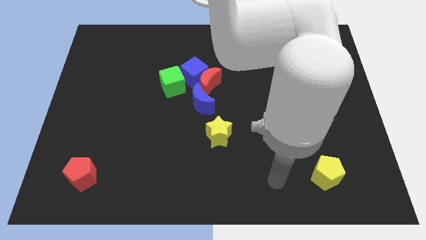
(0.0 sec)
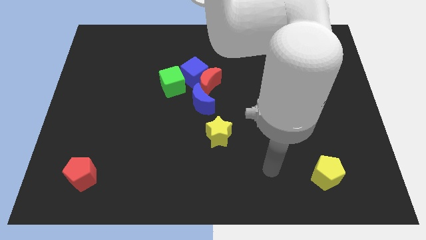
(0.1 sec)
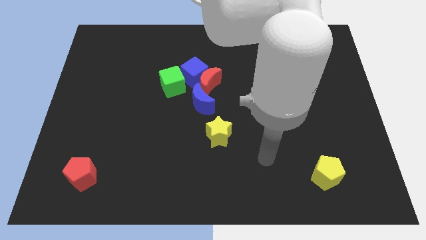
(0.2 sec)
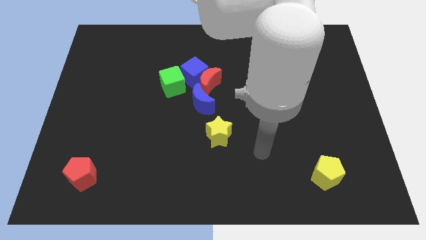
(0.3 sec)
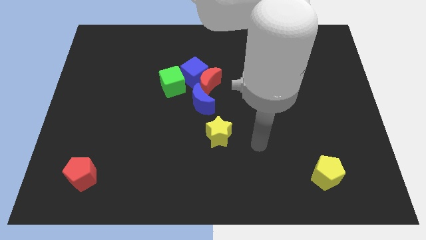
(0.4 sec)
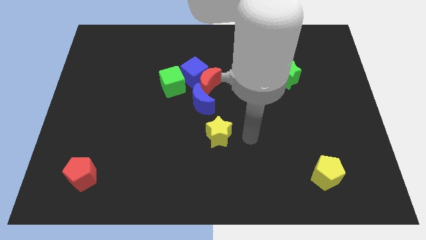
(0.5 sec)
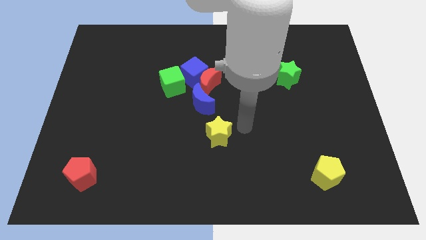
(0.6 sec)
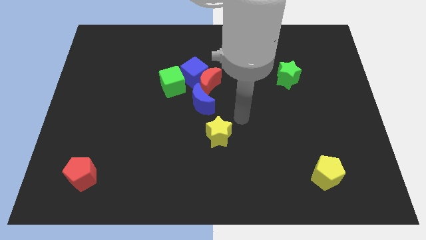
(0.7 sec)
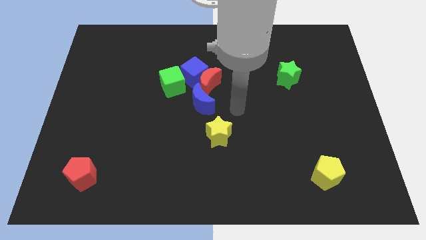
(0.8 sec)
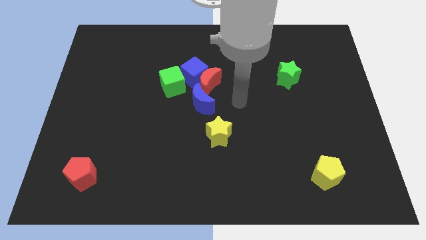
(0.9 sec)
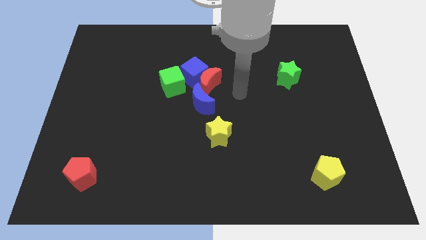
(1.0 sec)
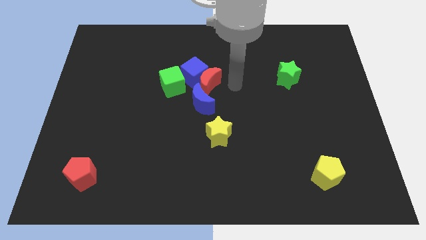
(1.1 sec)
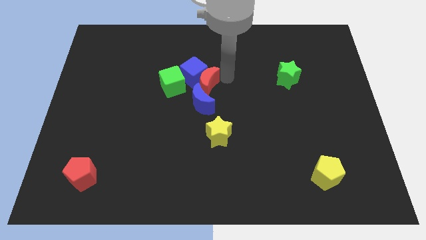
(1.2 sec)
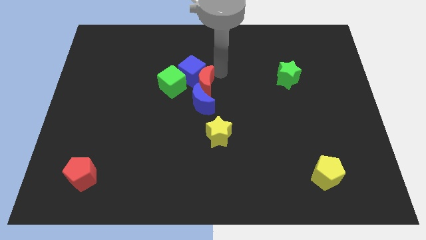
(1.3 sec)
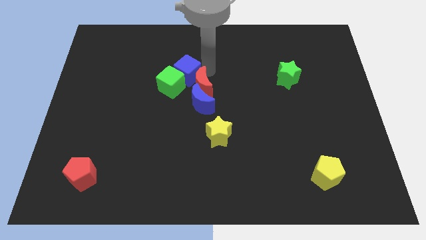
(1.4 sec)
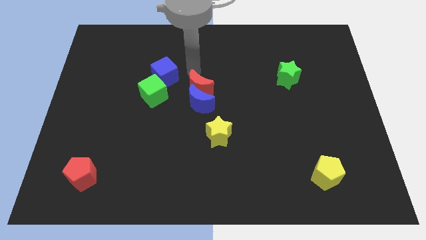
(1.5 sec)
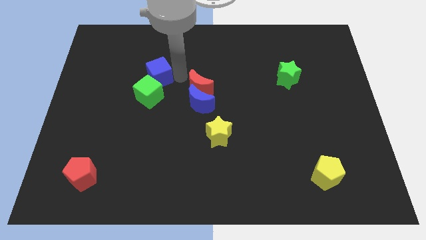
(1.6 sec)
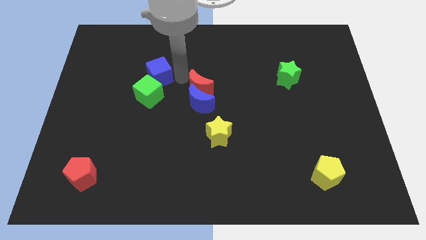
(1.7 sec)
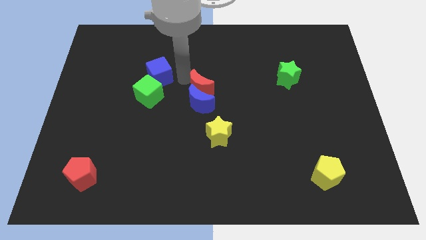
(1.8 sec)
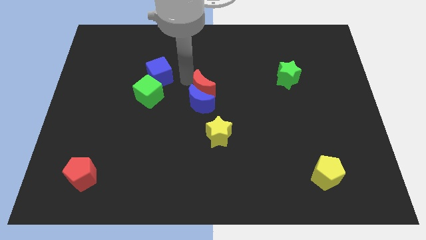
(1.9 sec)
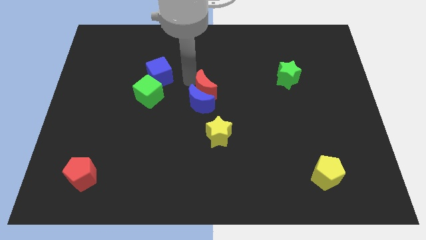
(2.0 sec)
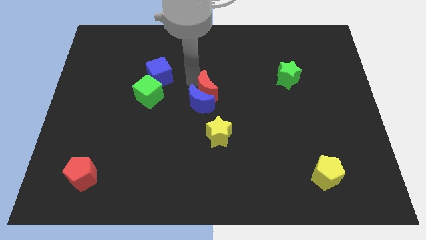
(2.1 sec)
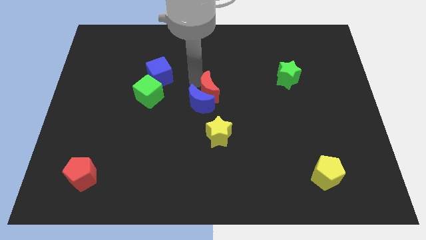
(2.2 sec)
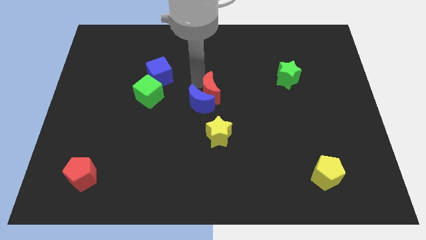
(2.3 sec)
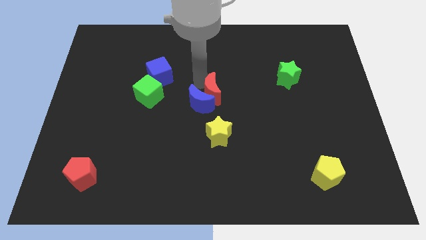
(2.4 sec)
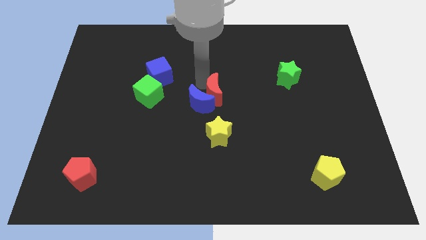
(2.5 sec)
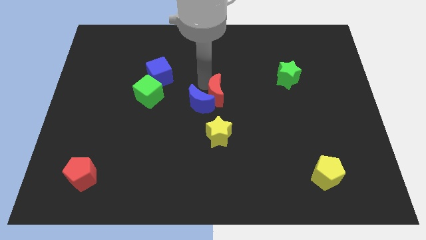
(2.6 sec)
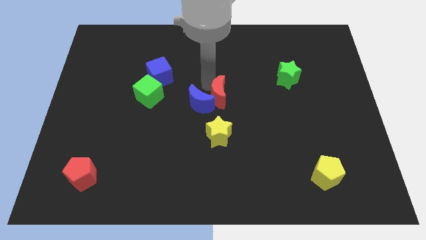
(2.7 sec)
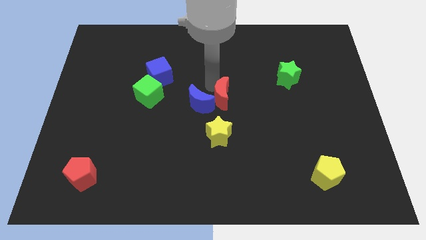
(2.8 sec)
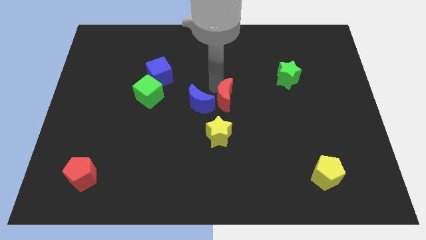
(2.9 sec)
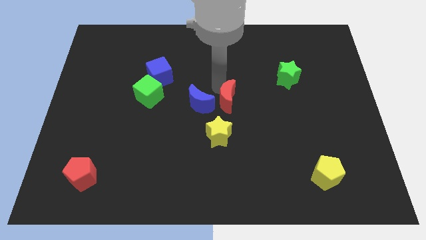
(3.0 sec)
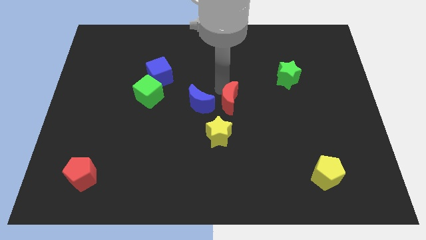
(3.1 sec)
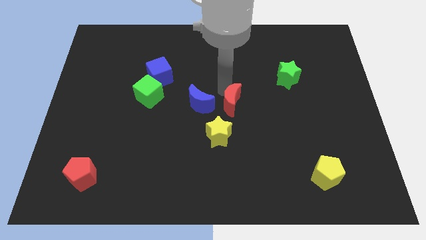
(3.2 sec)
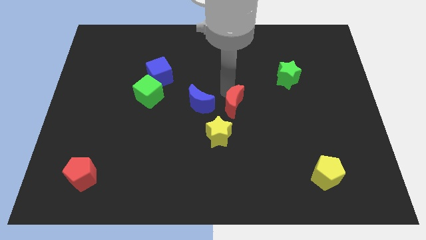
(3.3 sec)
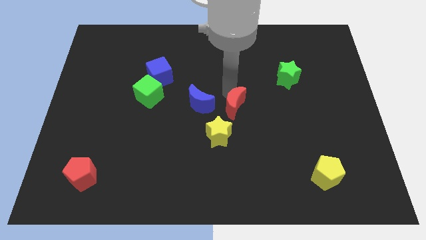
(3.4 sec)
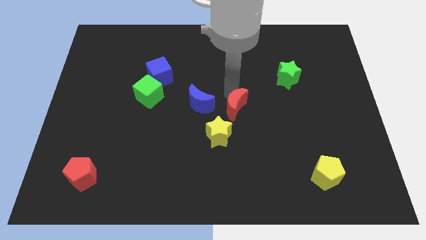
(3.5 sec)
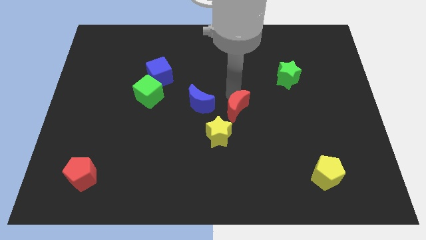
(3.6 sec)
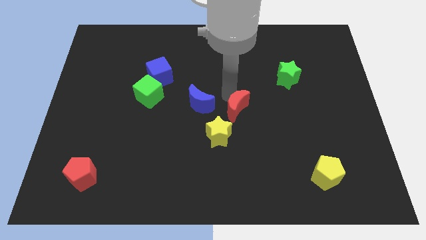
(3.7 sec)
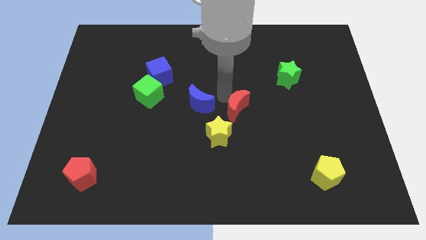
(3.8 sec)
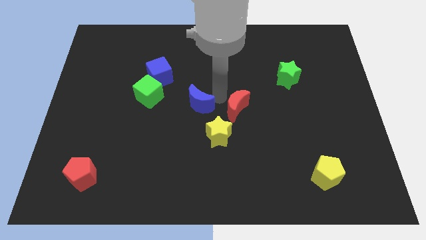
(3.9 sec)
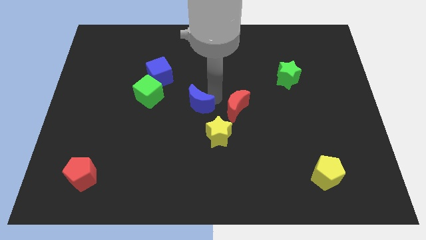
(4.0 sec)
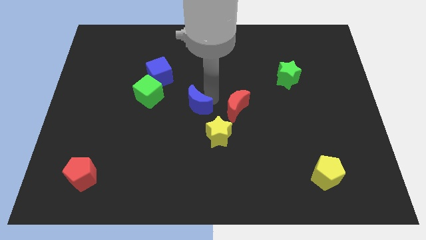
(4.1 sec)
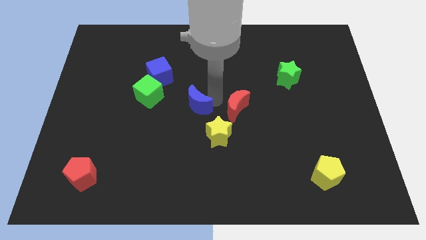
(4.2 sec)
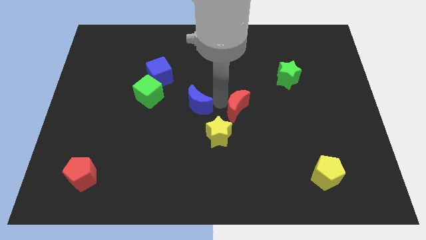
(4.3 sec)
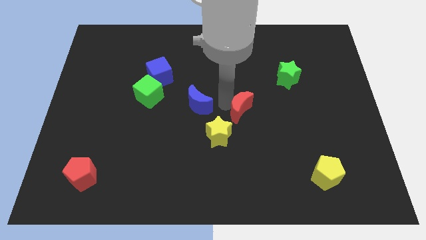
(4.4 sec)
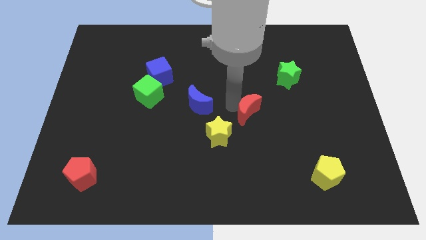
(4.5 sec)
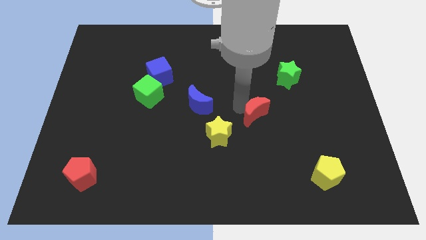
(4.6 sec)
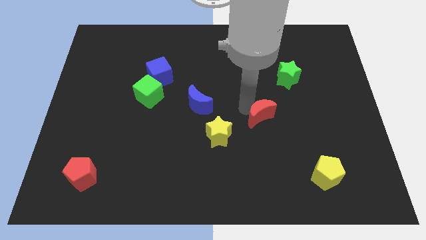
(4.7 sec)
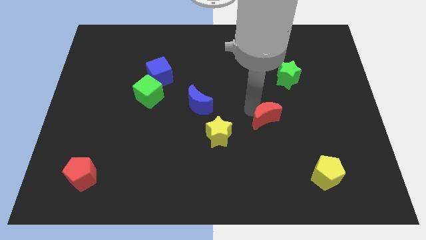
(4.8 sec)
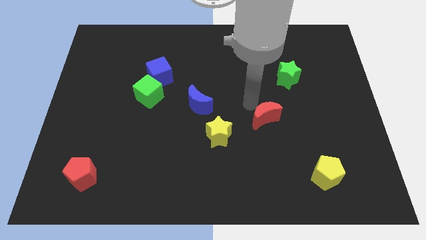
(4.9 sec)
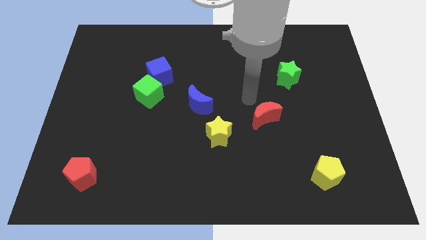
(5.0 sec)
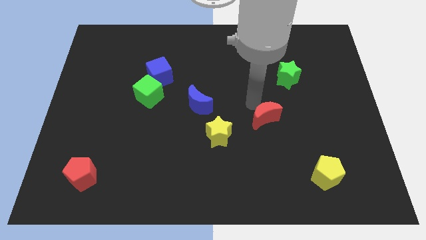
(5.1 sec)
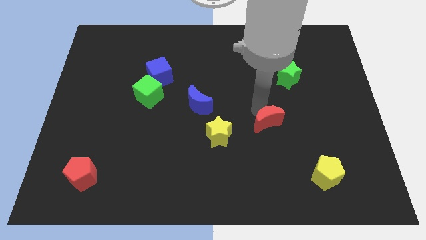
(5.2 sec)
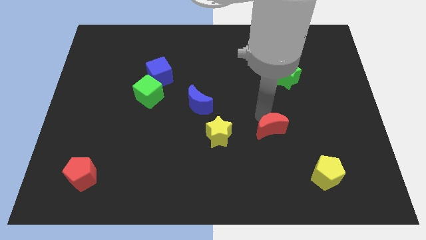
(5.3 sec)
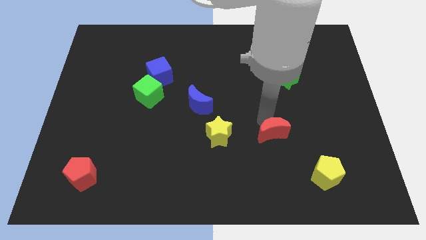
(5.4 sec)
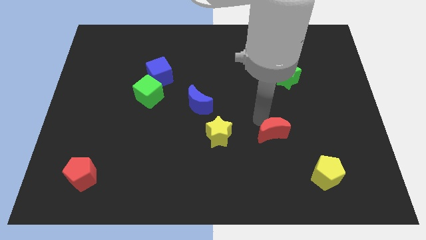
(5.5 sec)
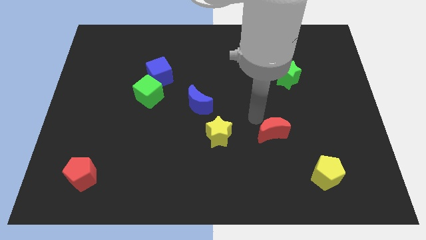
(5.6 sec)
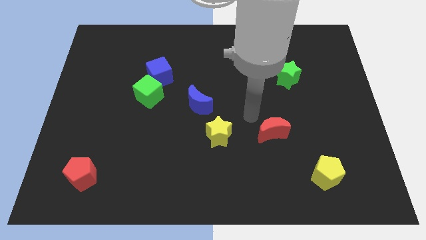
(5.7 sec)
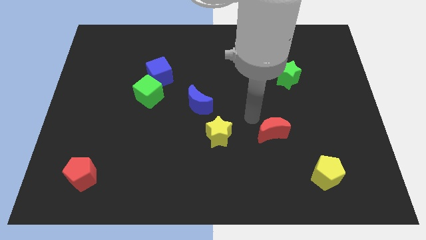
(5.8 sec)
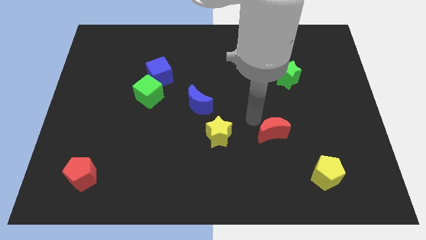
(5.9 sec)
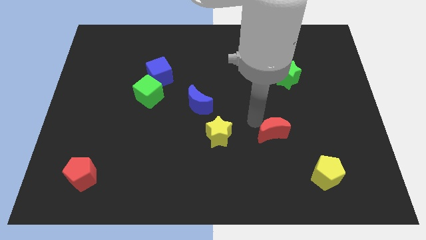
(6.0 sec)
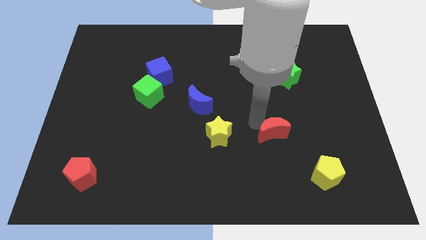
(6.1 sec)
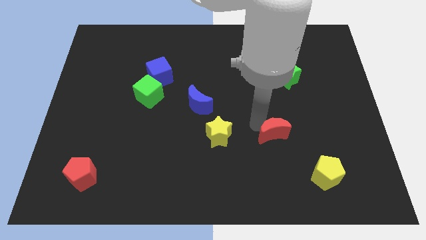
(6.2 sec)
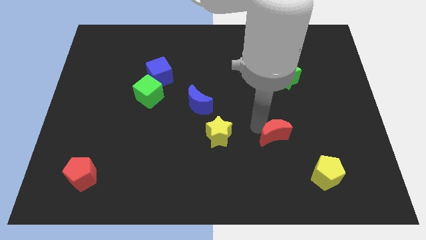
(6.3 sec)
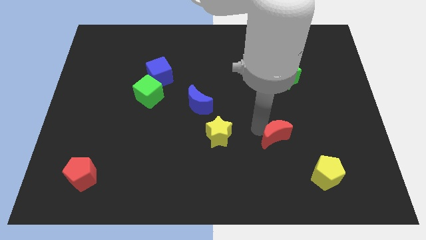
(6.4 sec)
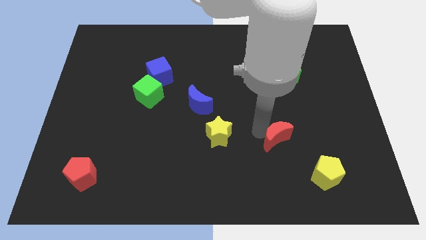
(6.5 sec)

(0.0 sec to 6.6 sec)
put the red moon to the top left side of the yellow pentagon

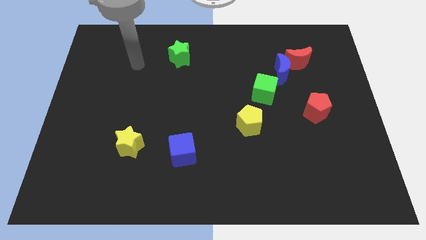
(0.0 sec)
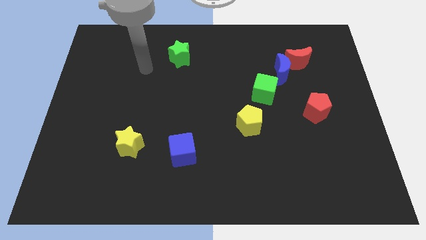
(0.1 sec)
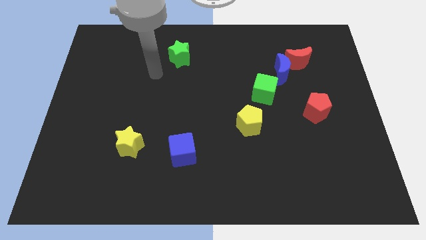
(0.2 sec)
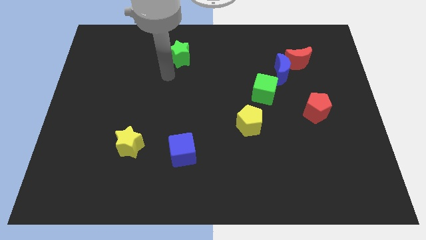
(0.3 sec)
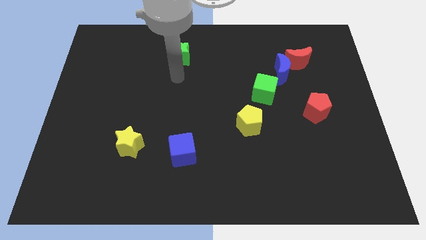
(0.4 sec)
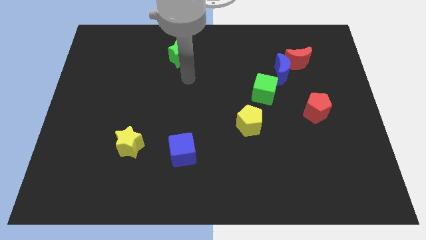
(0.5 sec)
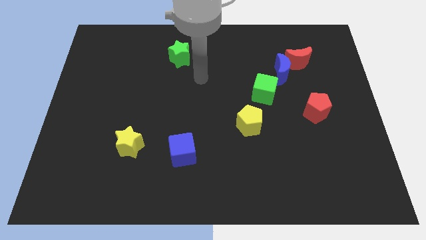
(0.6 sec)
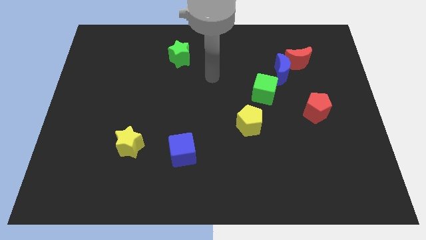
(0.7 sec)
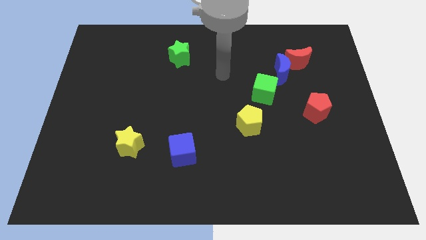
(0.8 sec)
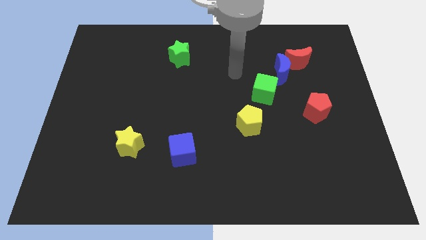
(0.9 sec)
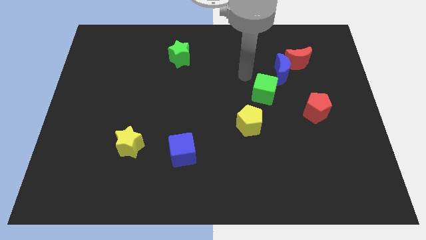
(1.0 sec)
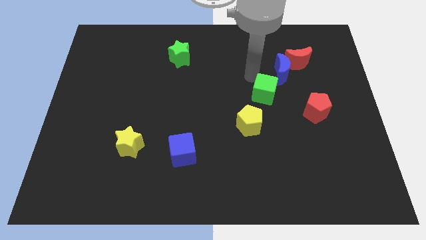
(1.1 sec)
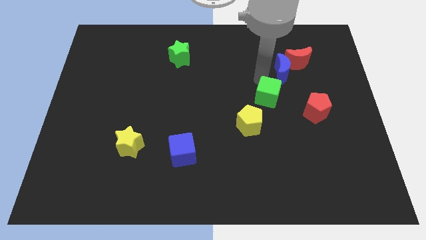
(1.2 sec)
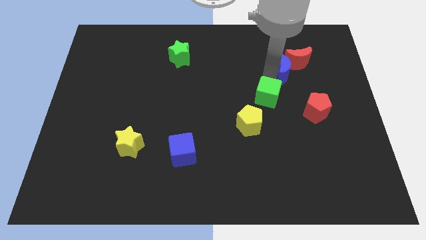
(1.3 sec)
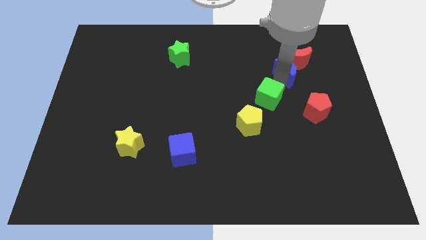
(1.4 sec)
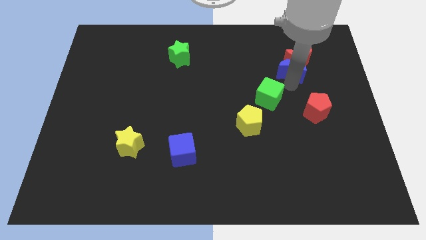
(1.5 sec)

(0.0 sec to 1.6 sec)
slide the red moon to the top left of the blue moon
